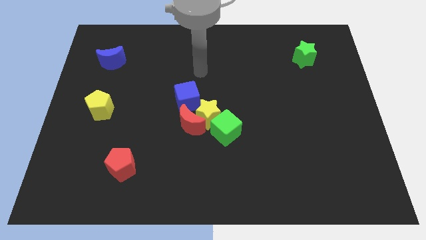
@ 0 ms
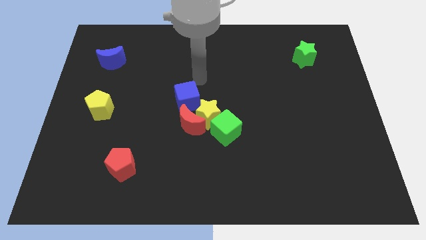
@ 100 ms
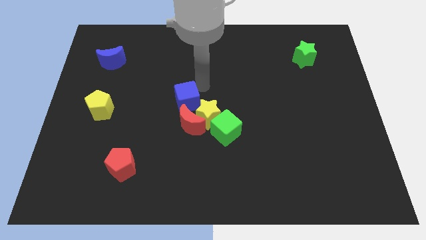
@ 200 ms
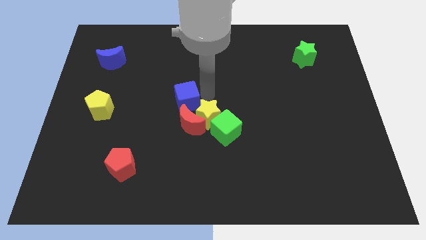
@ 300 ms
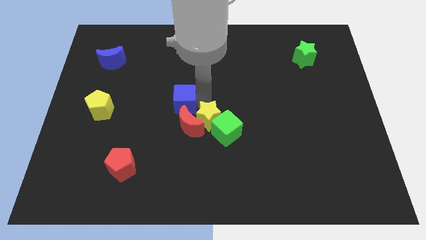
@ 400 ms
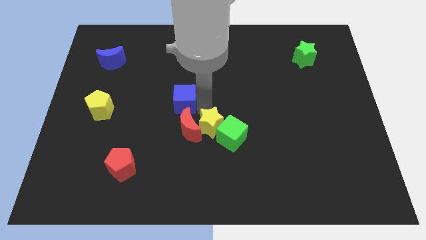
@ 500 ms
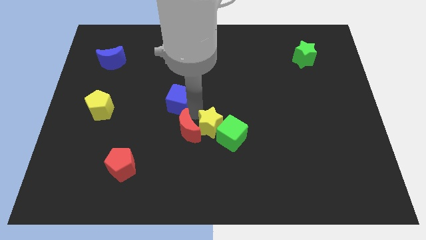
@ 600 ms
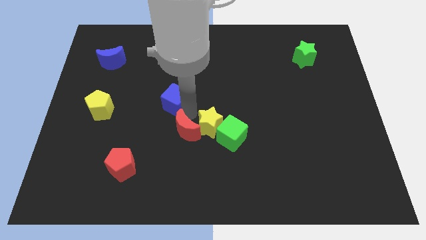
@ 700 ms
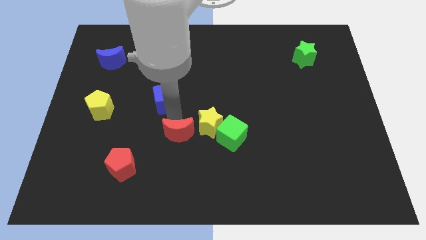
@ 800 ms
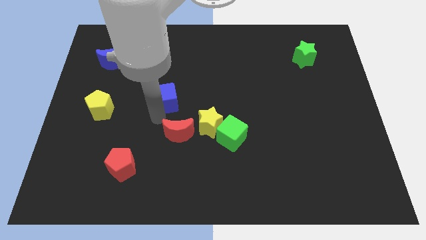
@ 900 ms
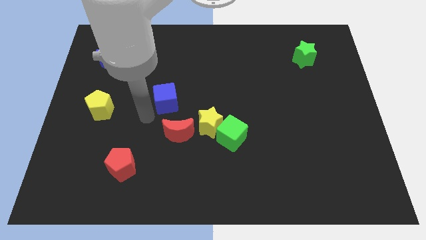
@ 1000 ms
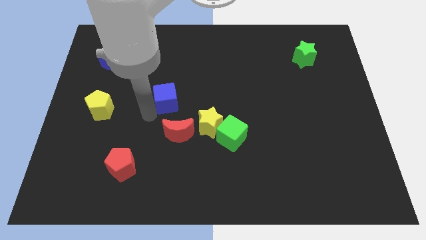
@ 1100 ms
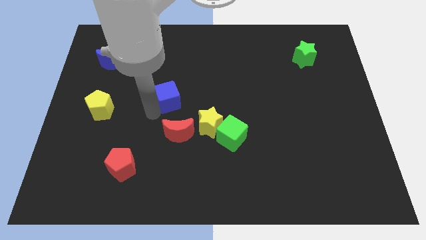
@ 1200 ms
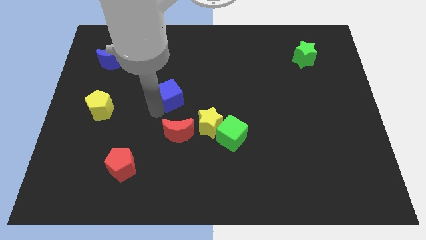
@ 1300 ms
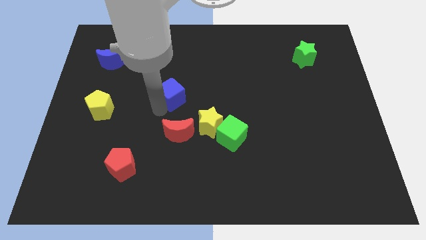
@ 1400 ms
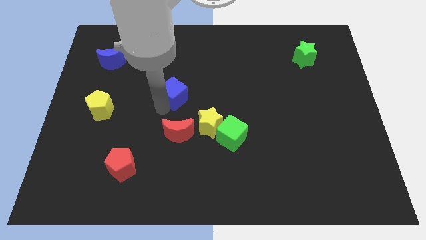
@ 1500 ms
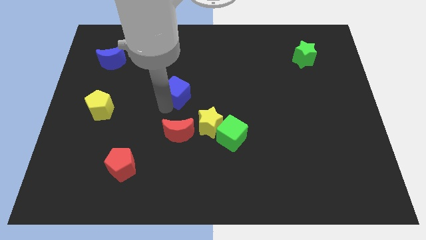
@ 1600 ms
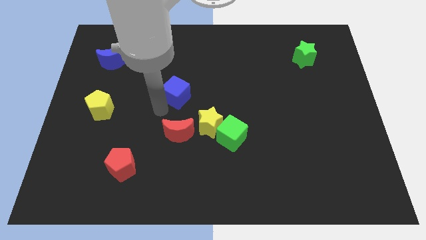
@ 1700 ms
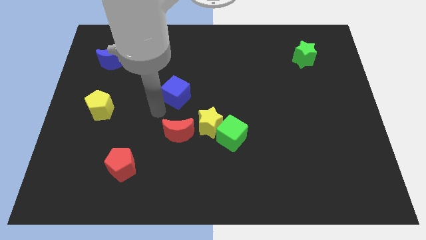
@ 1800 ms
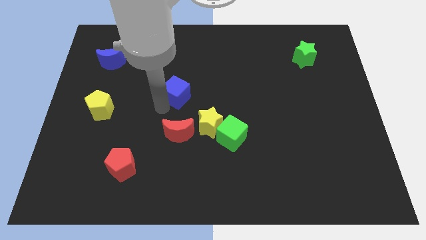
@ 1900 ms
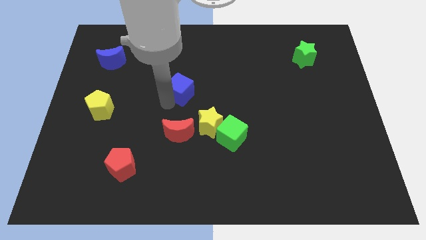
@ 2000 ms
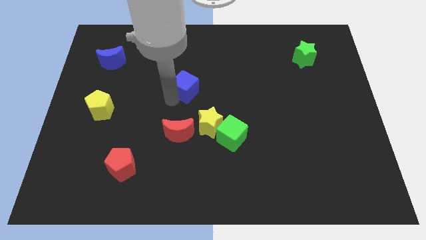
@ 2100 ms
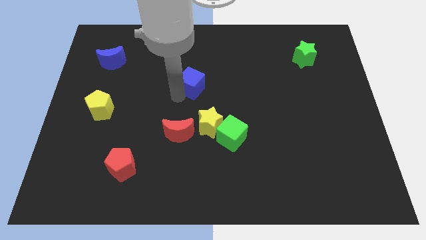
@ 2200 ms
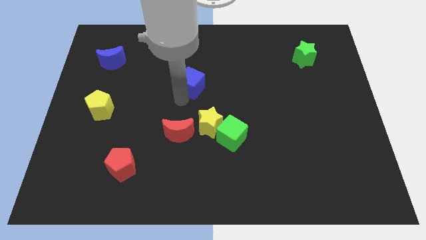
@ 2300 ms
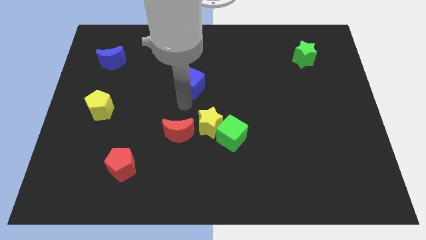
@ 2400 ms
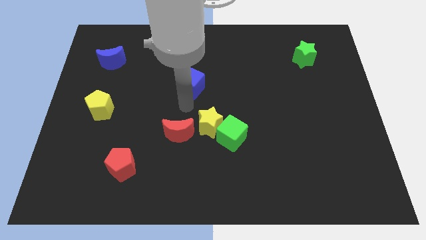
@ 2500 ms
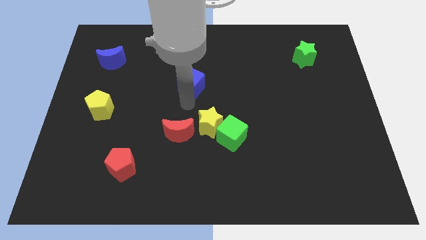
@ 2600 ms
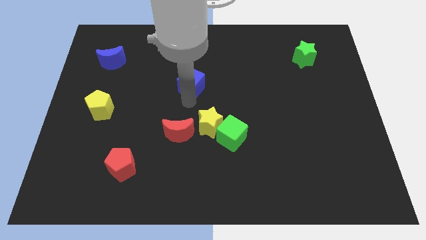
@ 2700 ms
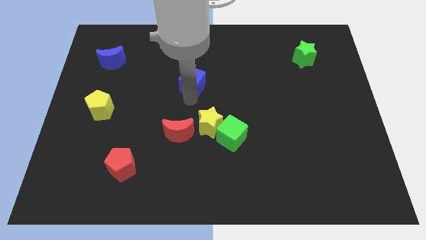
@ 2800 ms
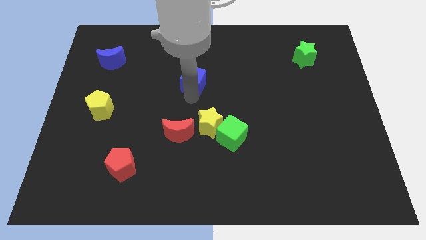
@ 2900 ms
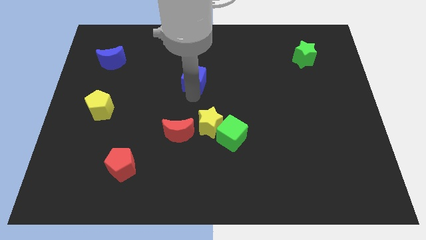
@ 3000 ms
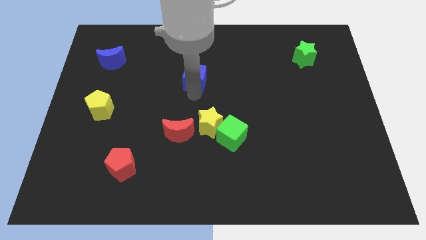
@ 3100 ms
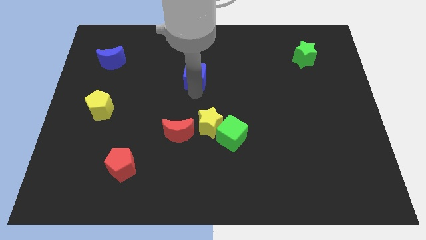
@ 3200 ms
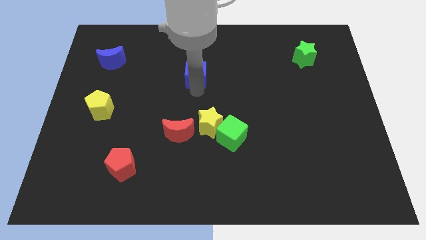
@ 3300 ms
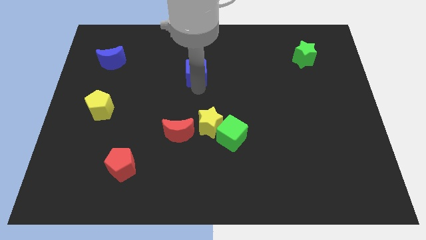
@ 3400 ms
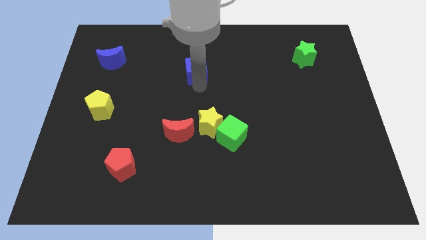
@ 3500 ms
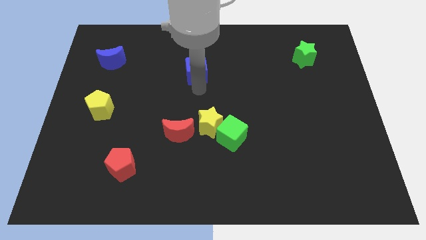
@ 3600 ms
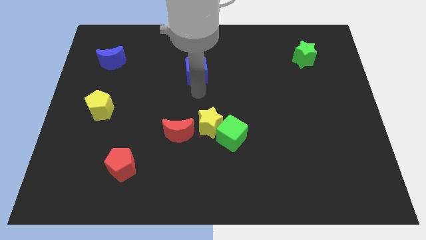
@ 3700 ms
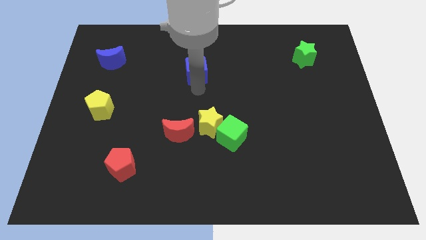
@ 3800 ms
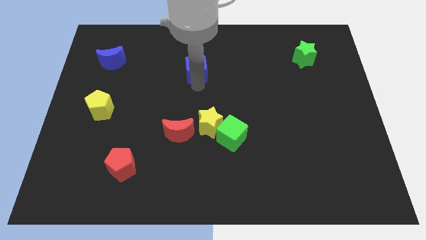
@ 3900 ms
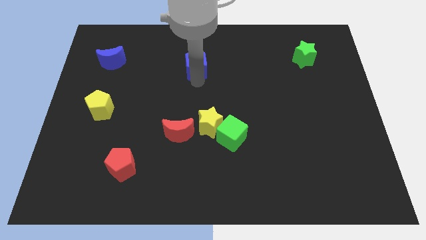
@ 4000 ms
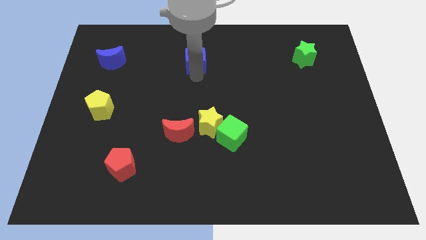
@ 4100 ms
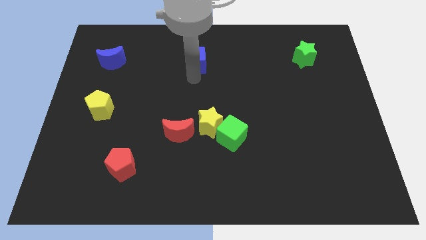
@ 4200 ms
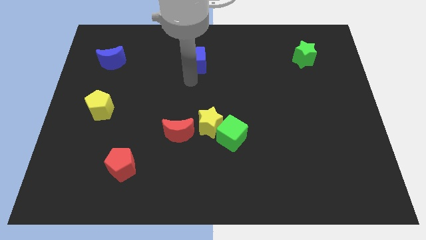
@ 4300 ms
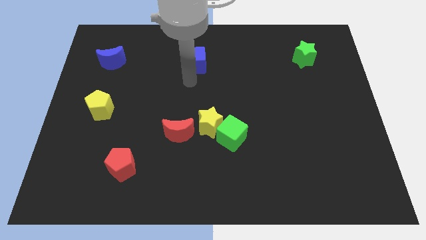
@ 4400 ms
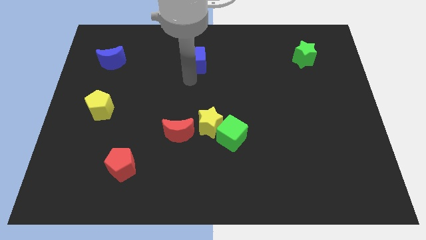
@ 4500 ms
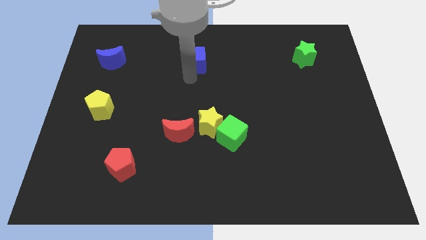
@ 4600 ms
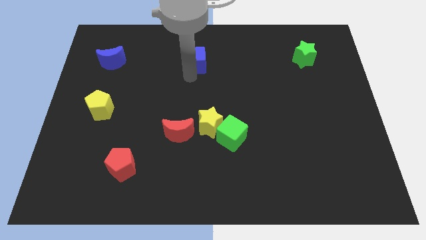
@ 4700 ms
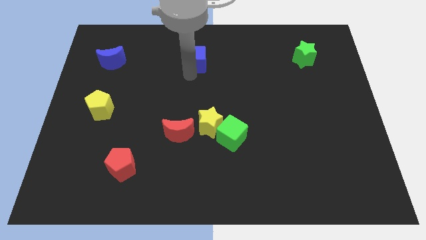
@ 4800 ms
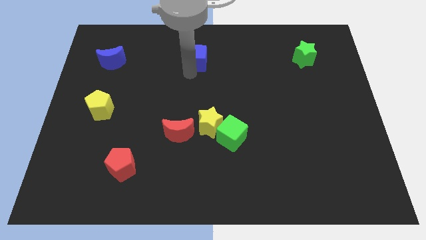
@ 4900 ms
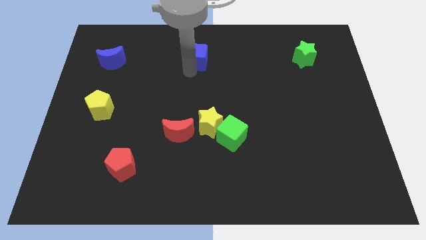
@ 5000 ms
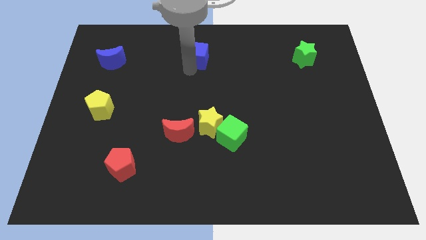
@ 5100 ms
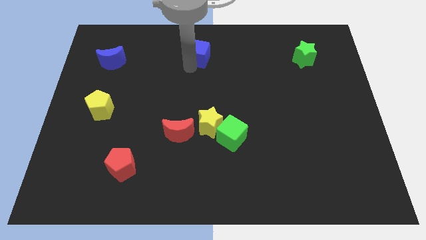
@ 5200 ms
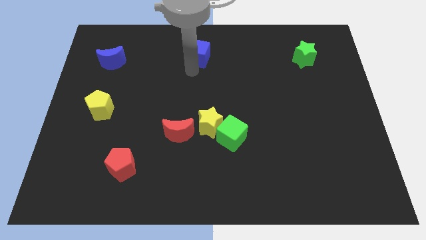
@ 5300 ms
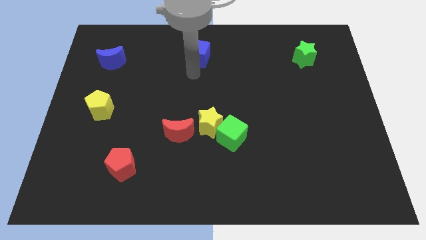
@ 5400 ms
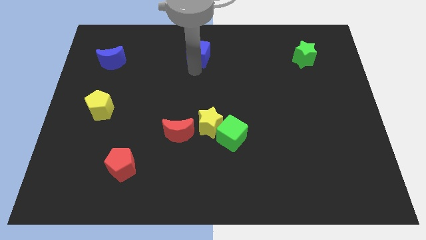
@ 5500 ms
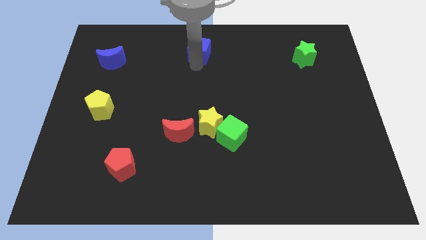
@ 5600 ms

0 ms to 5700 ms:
slide the blue cube to the towards your base

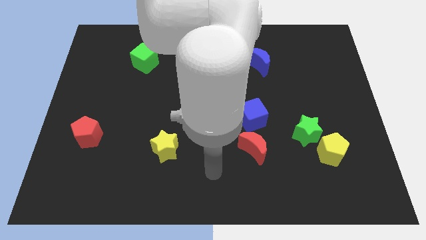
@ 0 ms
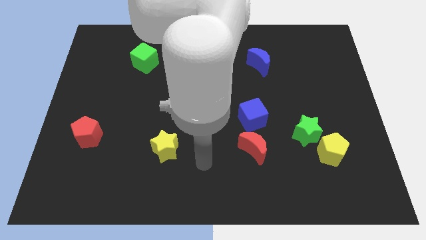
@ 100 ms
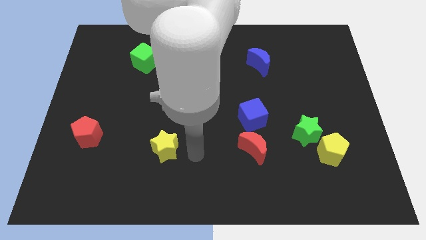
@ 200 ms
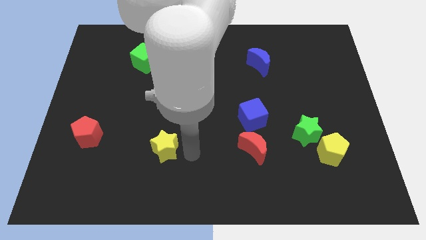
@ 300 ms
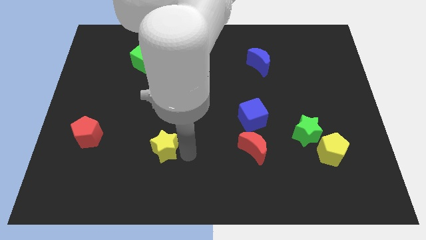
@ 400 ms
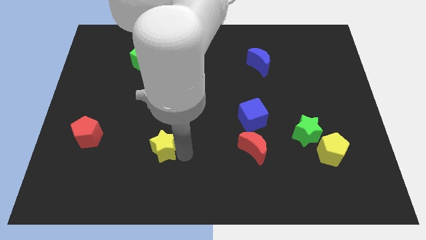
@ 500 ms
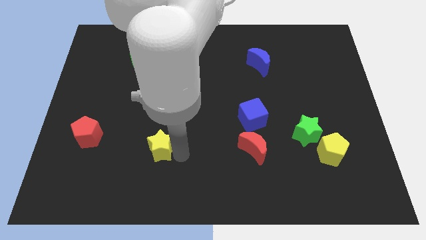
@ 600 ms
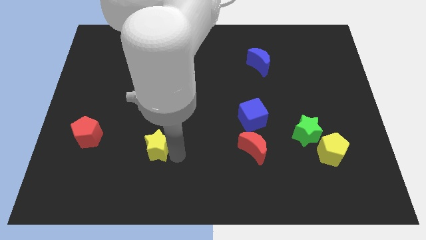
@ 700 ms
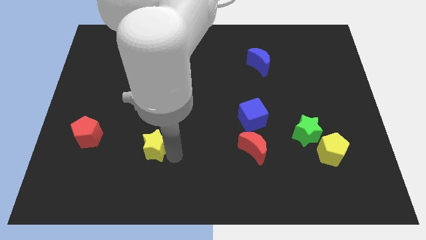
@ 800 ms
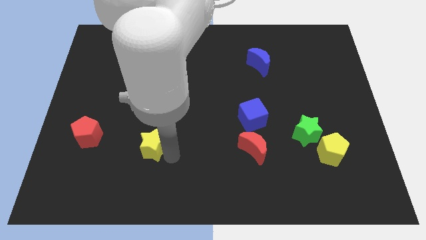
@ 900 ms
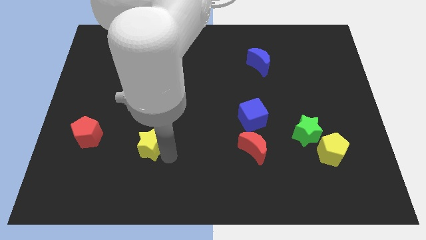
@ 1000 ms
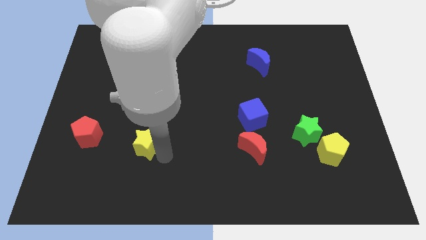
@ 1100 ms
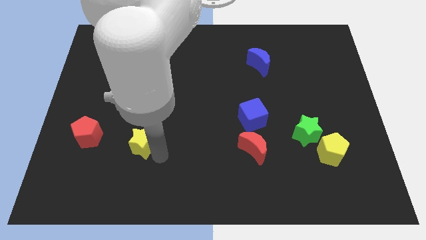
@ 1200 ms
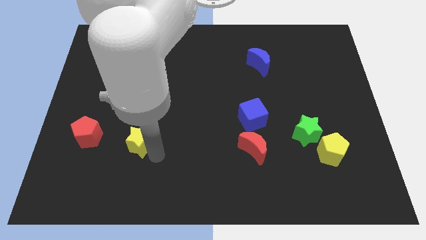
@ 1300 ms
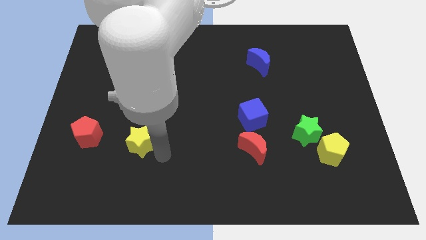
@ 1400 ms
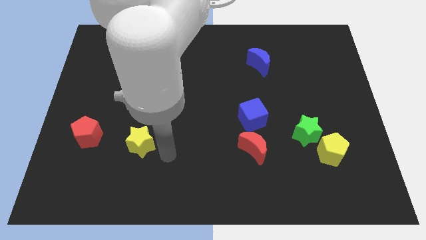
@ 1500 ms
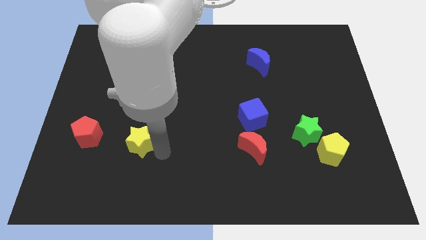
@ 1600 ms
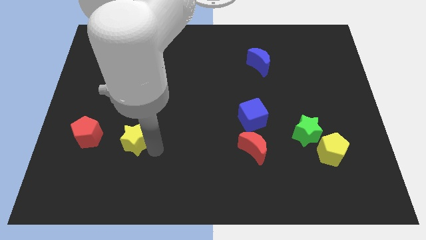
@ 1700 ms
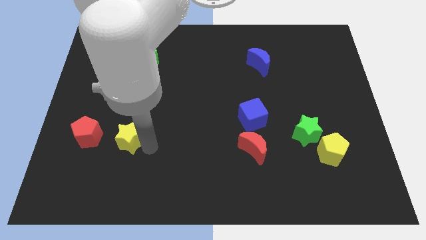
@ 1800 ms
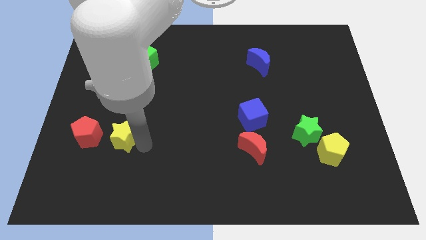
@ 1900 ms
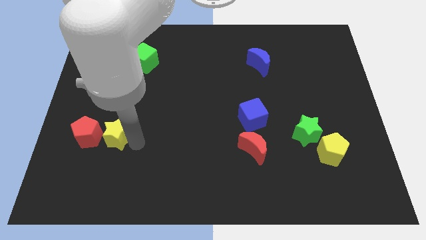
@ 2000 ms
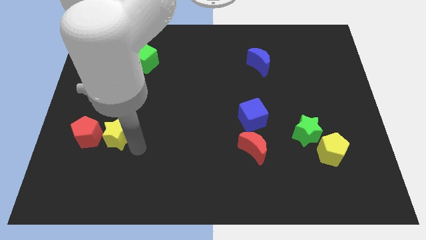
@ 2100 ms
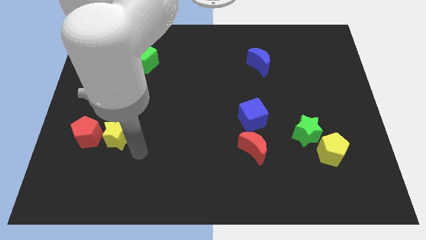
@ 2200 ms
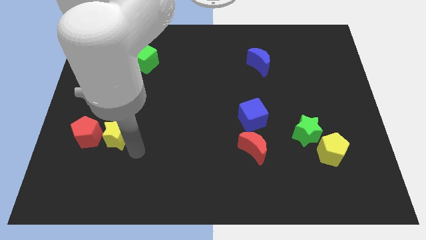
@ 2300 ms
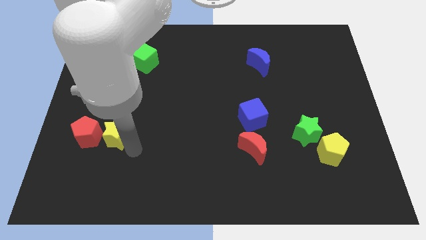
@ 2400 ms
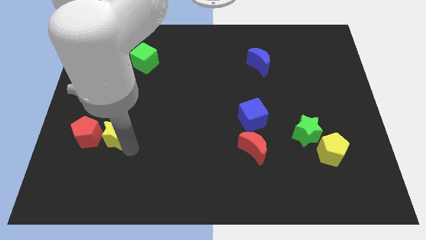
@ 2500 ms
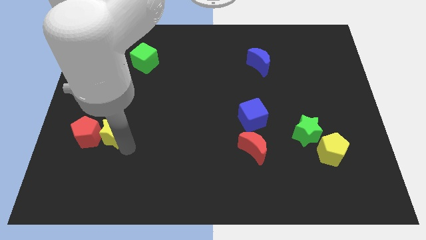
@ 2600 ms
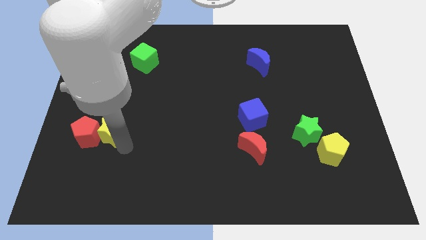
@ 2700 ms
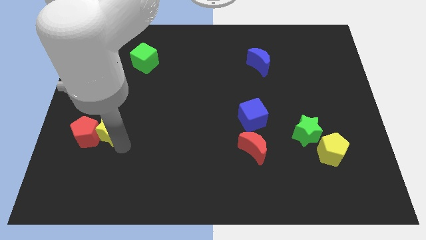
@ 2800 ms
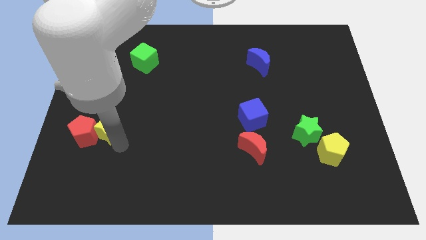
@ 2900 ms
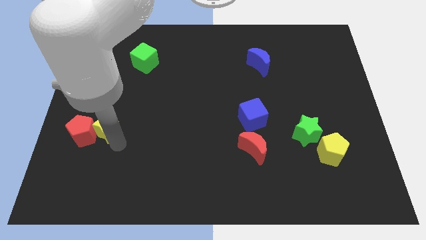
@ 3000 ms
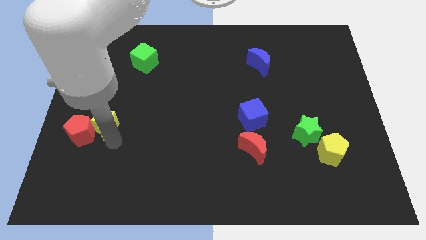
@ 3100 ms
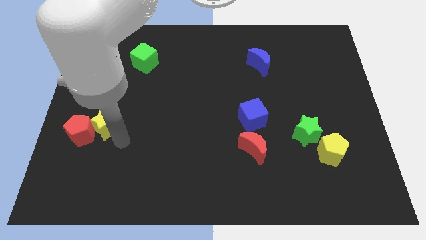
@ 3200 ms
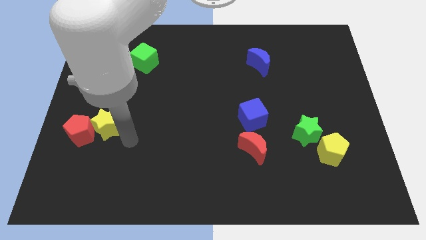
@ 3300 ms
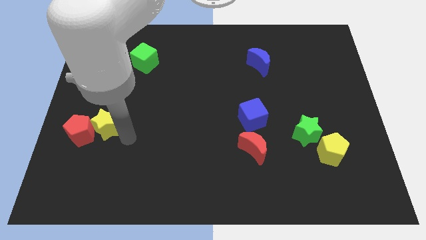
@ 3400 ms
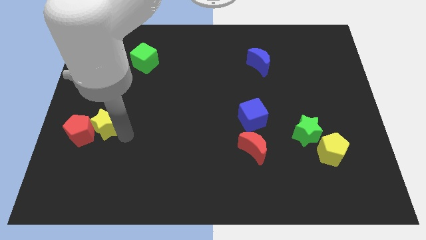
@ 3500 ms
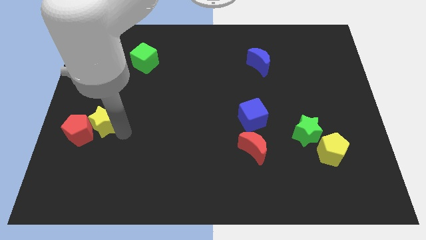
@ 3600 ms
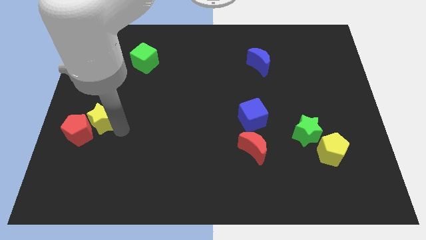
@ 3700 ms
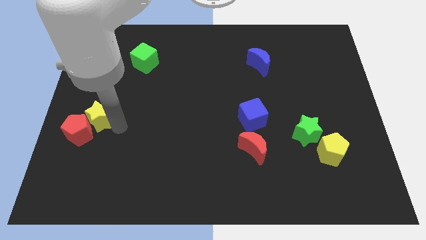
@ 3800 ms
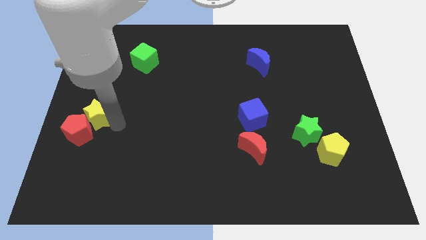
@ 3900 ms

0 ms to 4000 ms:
slide the yellow star to the left side of the board
